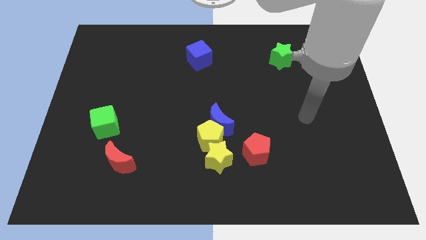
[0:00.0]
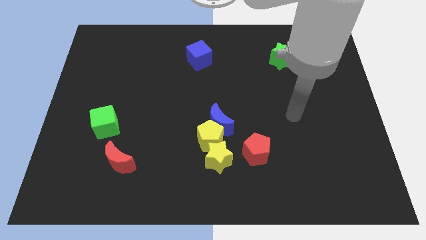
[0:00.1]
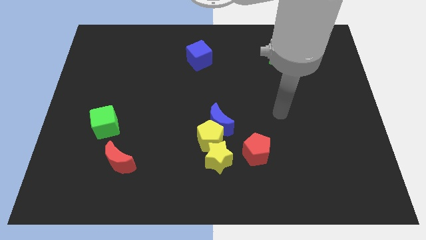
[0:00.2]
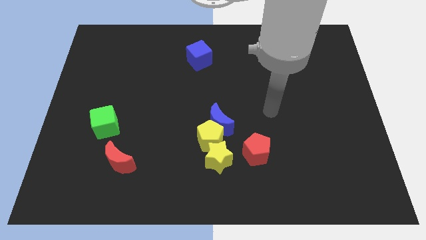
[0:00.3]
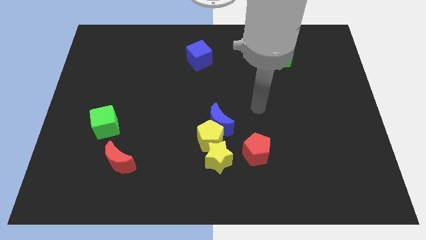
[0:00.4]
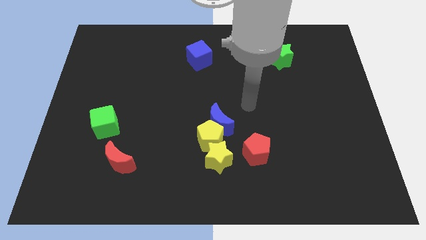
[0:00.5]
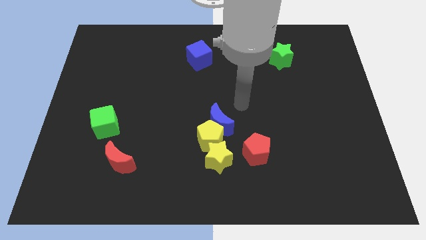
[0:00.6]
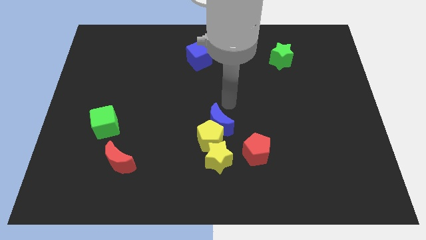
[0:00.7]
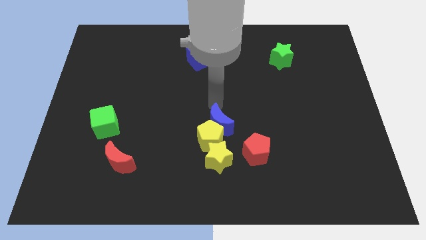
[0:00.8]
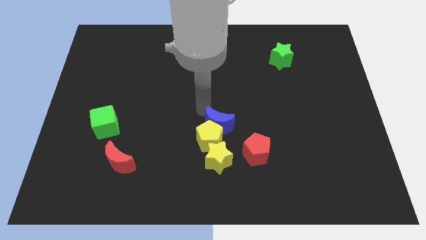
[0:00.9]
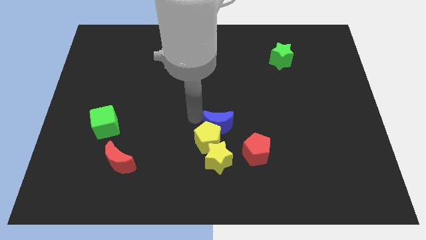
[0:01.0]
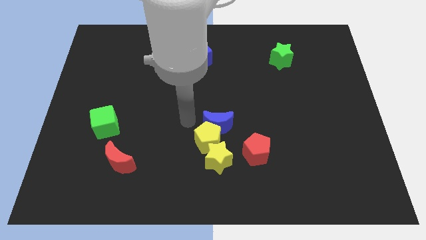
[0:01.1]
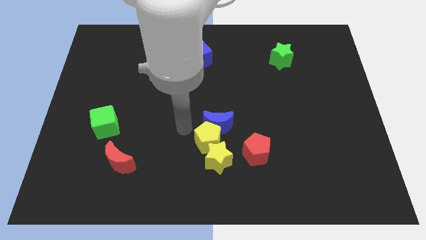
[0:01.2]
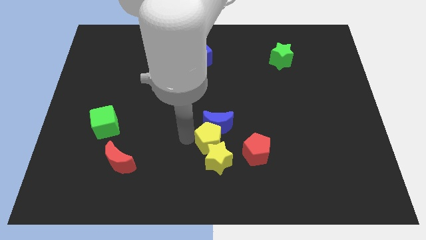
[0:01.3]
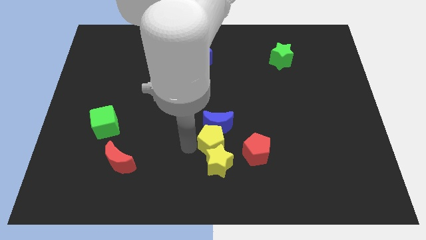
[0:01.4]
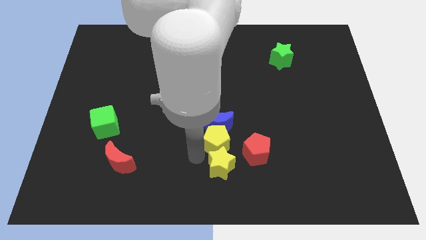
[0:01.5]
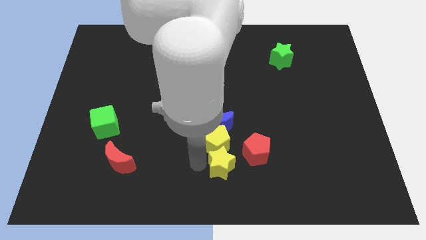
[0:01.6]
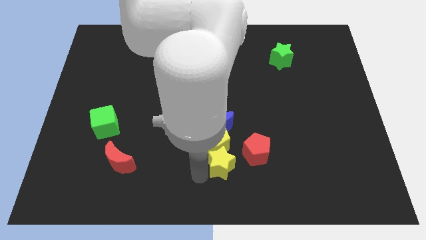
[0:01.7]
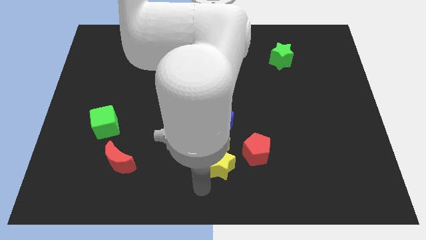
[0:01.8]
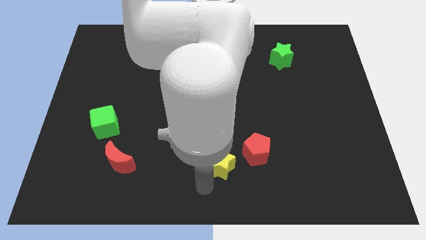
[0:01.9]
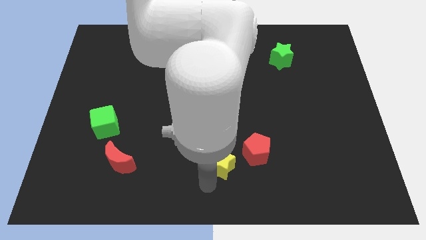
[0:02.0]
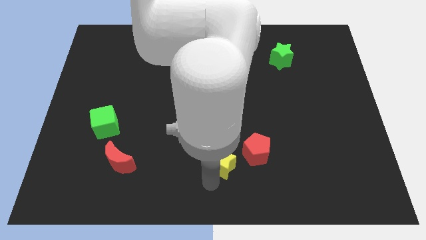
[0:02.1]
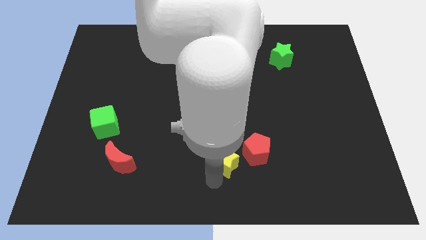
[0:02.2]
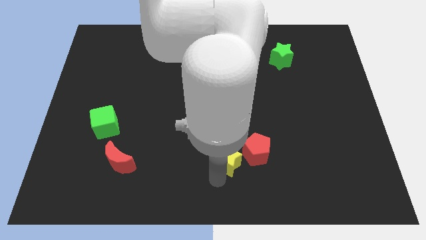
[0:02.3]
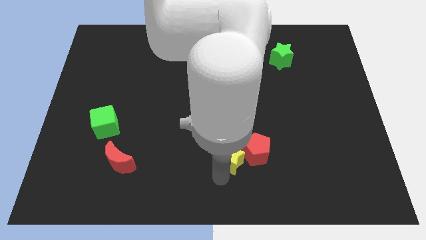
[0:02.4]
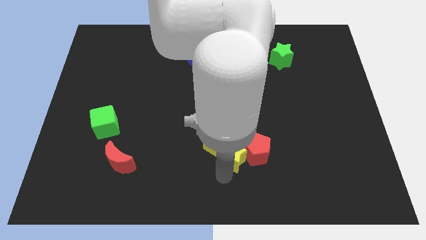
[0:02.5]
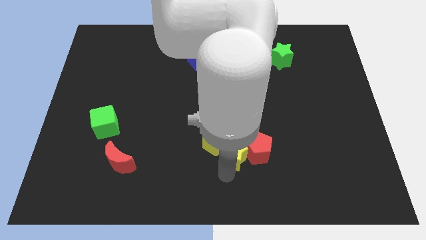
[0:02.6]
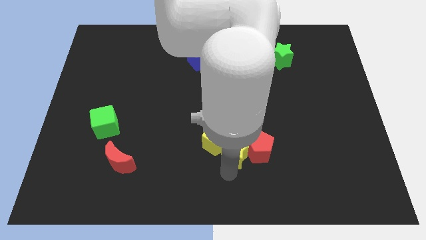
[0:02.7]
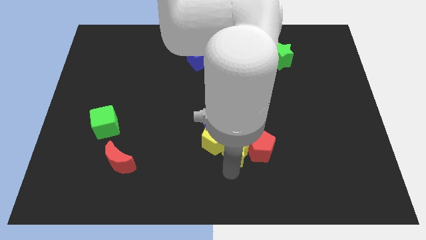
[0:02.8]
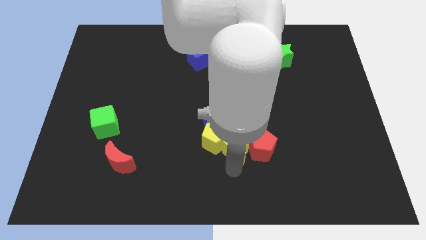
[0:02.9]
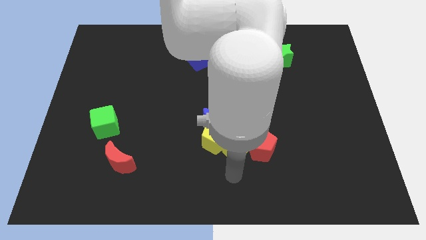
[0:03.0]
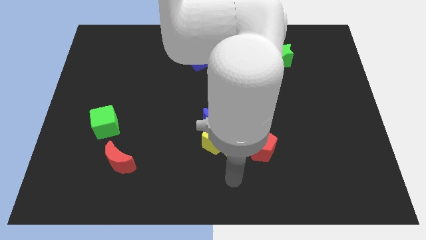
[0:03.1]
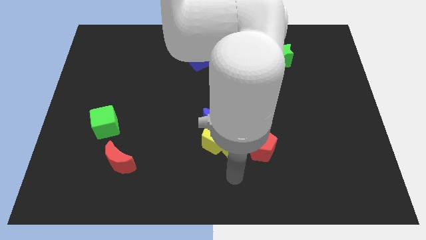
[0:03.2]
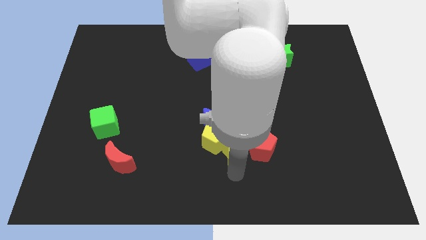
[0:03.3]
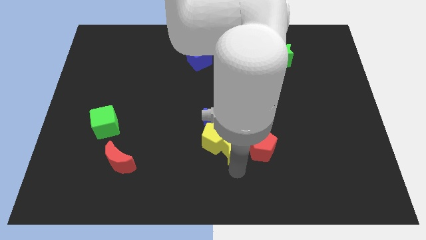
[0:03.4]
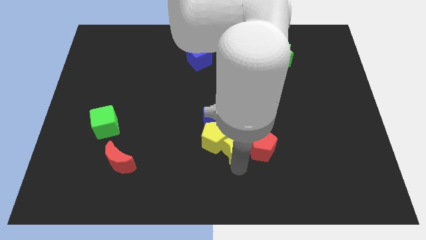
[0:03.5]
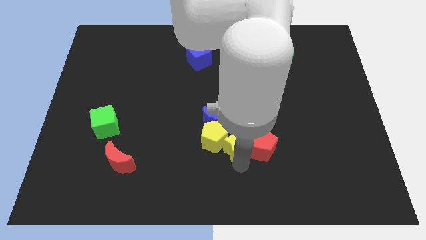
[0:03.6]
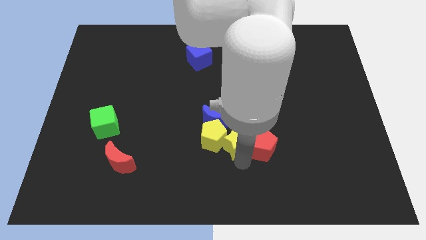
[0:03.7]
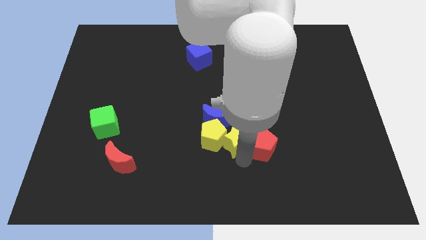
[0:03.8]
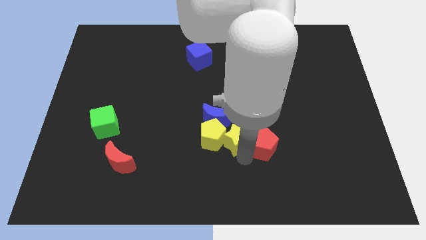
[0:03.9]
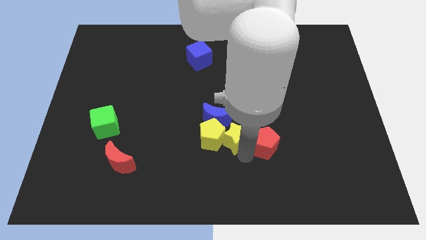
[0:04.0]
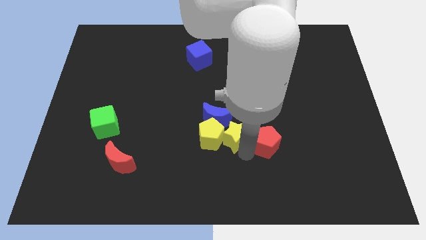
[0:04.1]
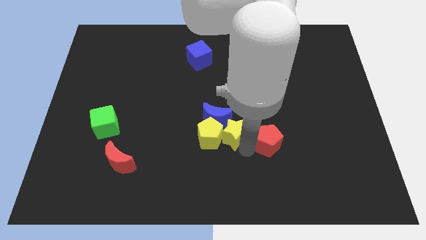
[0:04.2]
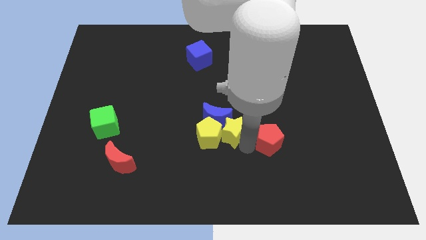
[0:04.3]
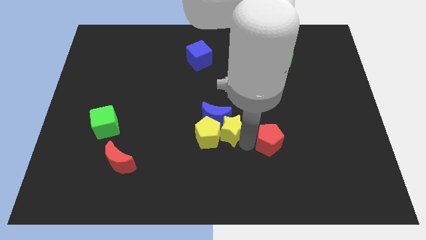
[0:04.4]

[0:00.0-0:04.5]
slide the yellow star up somewhat

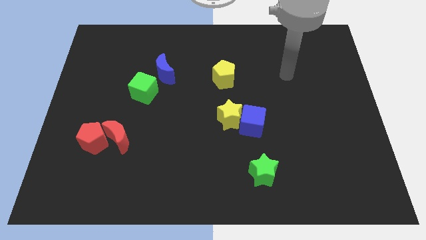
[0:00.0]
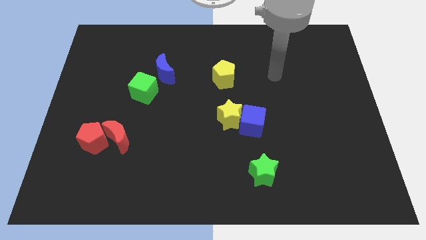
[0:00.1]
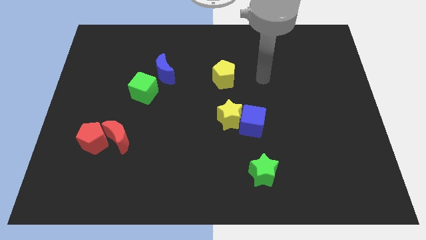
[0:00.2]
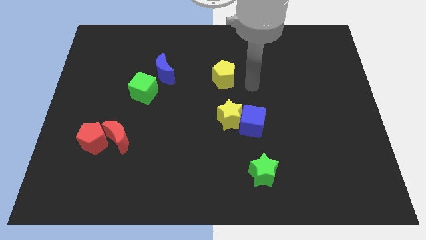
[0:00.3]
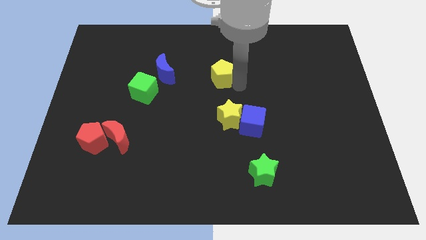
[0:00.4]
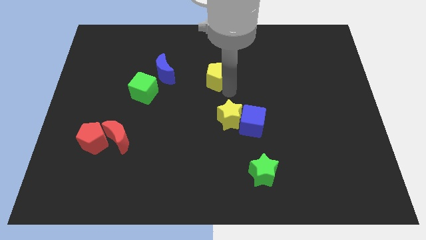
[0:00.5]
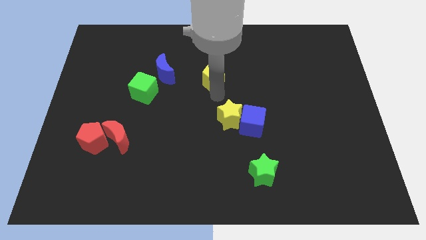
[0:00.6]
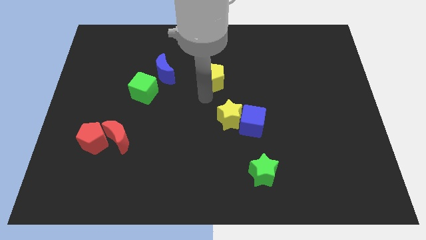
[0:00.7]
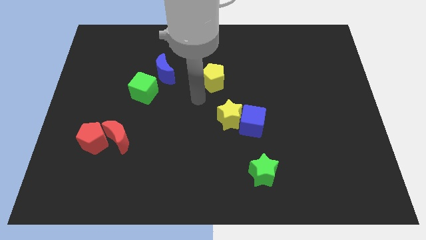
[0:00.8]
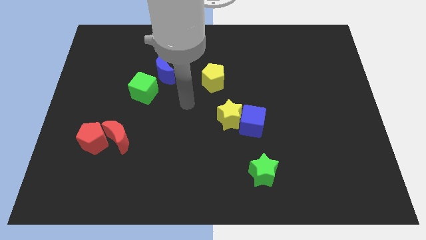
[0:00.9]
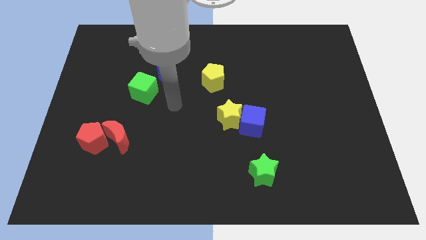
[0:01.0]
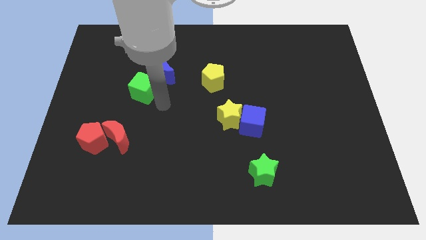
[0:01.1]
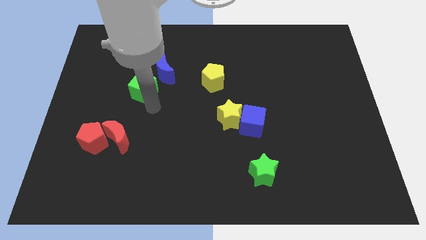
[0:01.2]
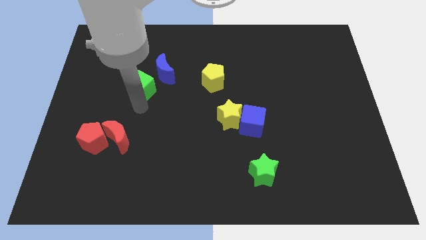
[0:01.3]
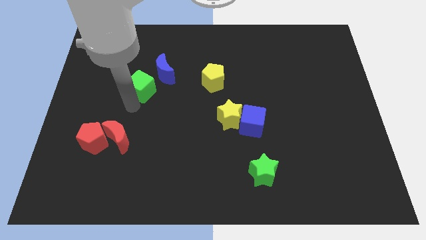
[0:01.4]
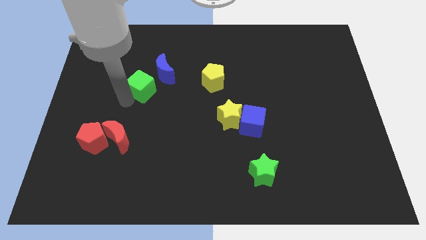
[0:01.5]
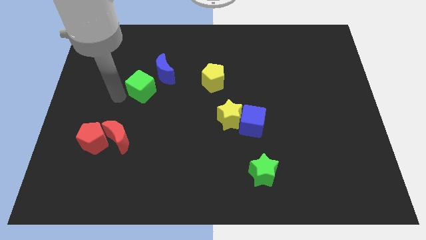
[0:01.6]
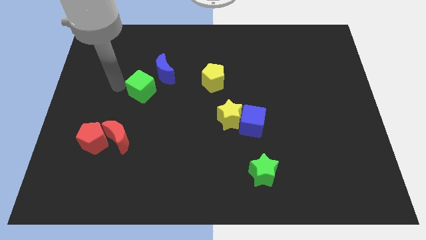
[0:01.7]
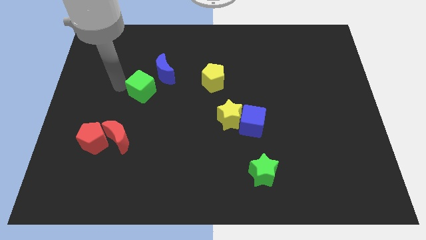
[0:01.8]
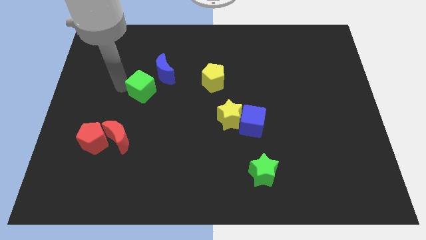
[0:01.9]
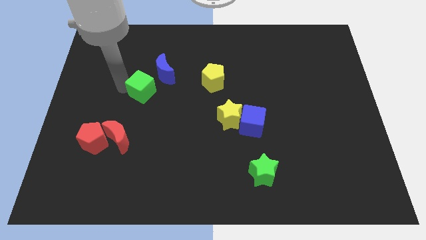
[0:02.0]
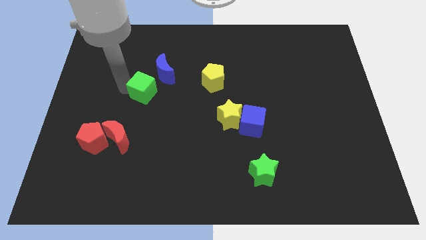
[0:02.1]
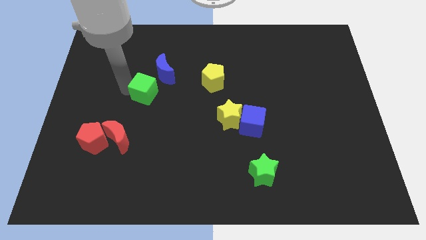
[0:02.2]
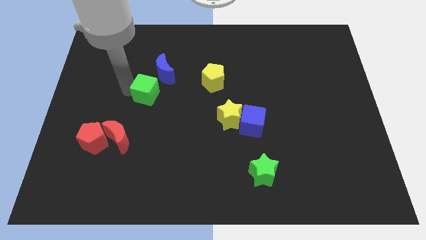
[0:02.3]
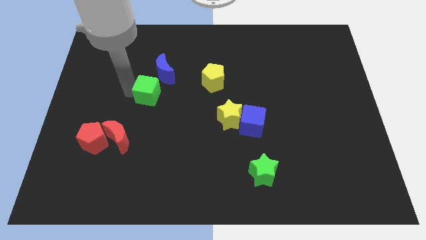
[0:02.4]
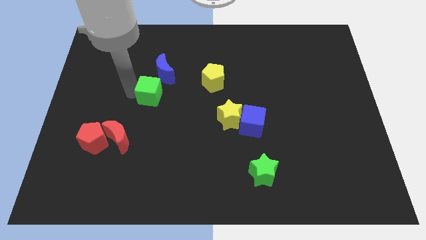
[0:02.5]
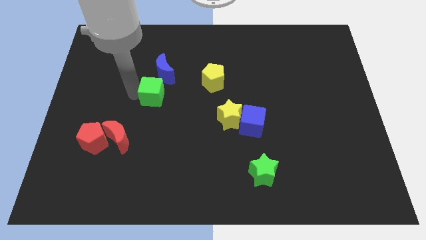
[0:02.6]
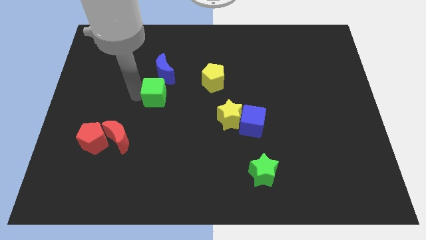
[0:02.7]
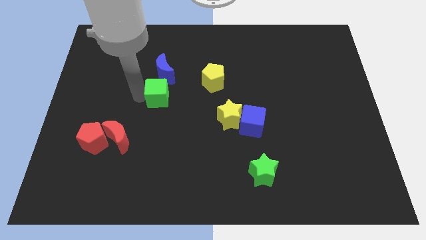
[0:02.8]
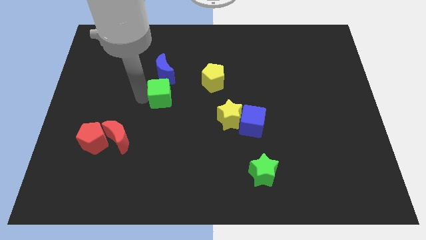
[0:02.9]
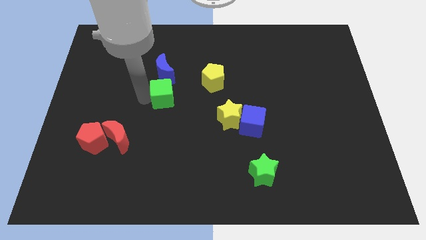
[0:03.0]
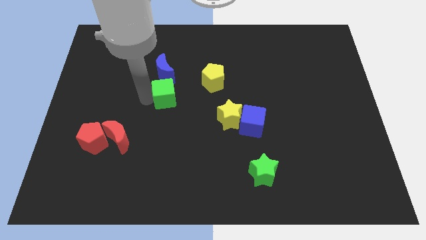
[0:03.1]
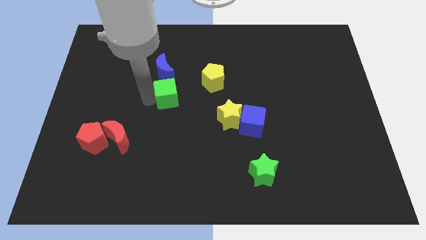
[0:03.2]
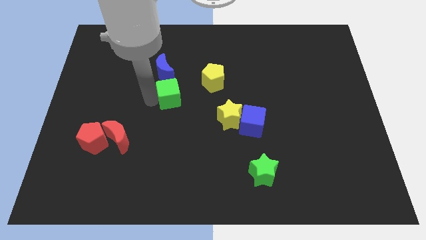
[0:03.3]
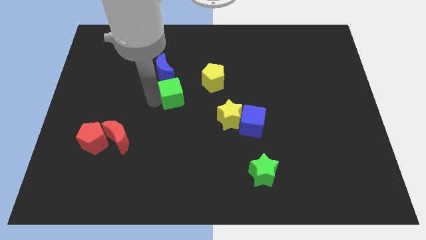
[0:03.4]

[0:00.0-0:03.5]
move the green cube to the right a little
